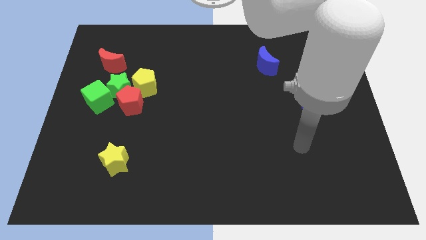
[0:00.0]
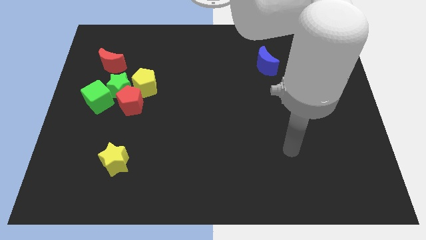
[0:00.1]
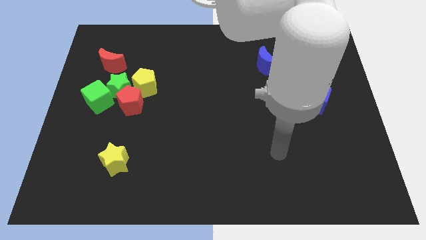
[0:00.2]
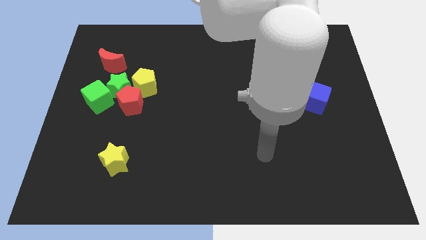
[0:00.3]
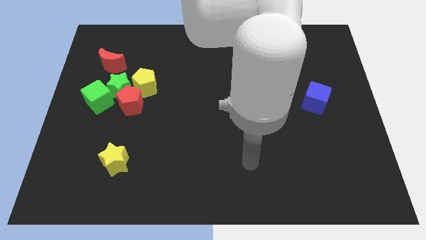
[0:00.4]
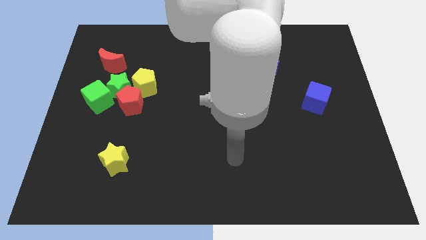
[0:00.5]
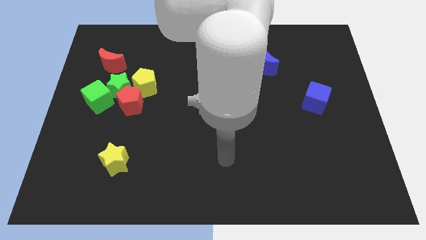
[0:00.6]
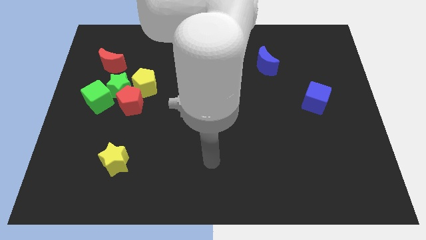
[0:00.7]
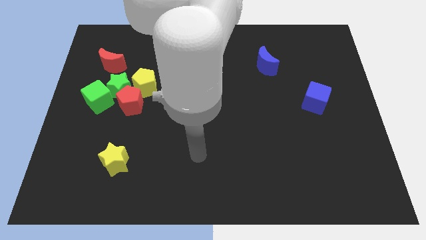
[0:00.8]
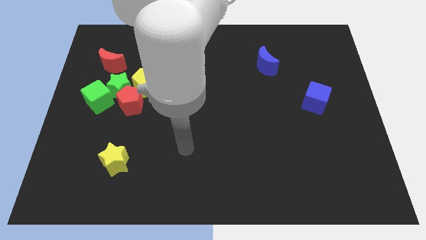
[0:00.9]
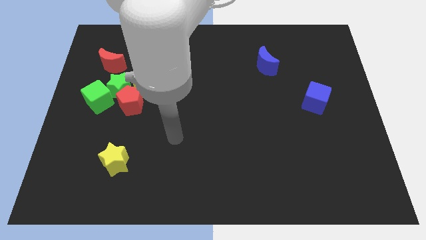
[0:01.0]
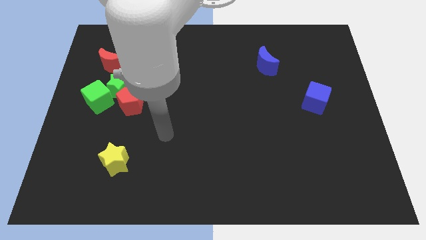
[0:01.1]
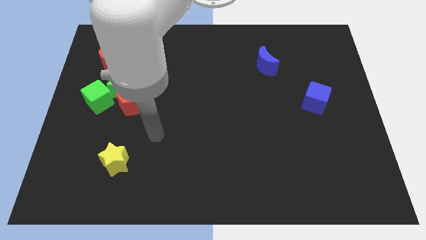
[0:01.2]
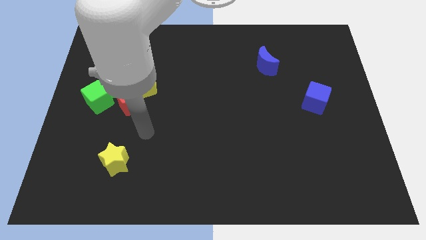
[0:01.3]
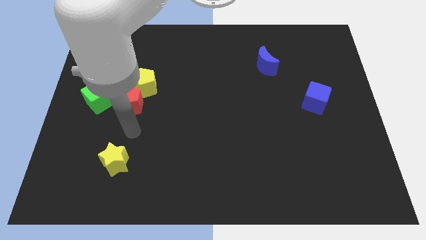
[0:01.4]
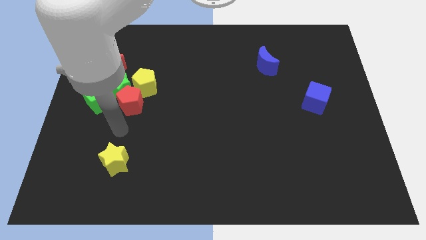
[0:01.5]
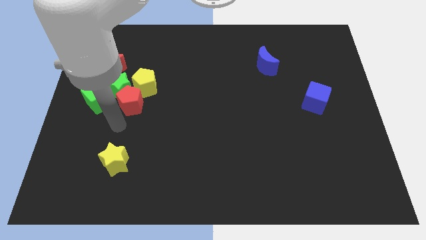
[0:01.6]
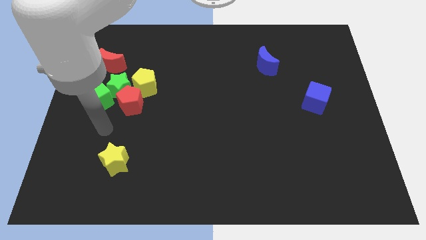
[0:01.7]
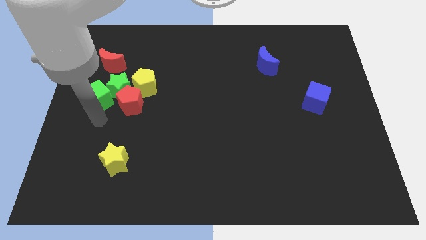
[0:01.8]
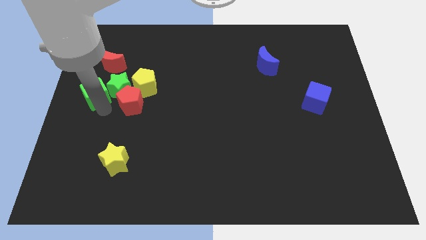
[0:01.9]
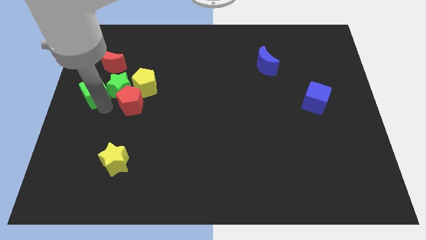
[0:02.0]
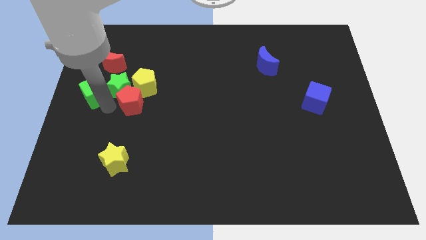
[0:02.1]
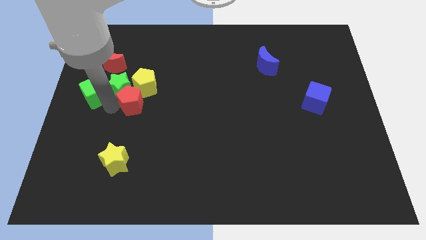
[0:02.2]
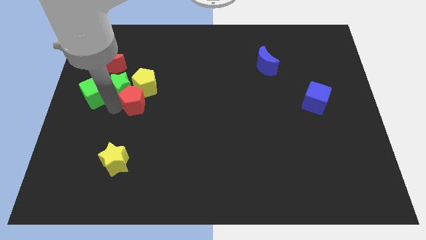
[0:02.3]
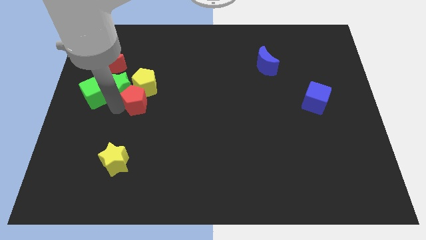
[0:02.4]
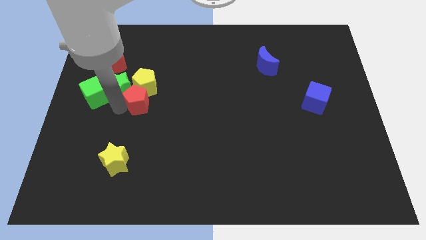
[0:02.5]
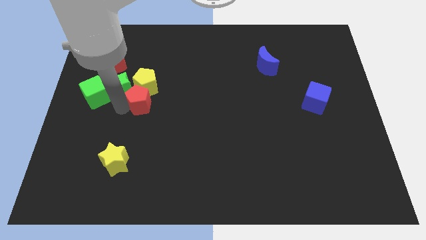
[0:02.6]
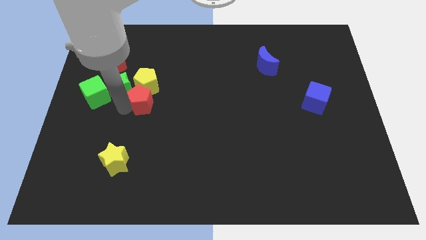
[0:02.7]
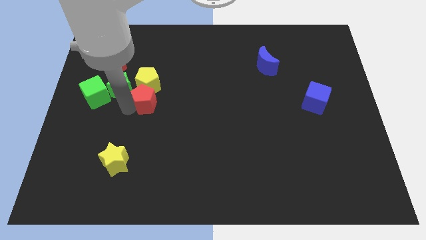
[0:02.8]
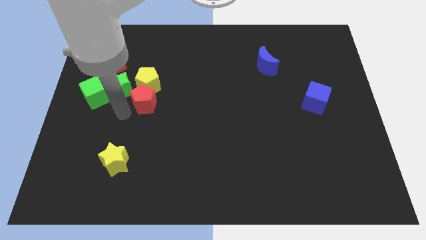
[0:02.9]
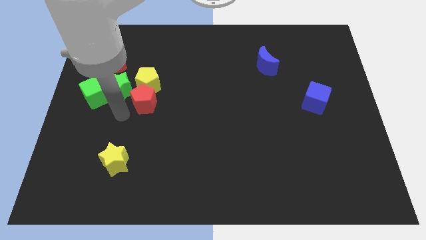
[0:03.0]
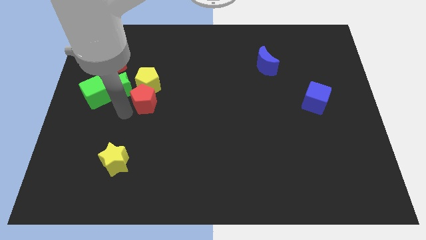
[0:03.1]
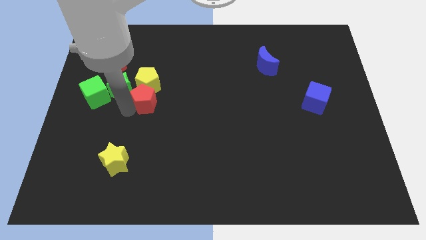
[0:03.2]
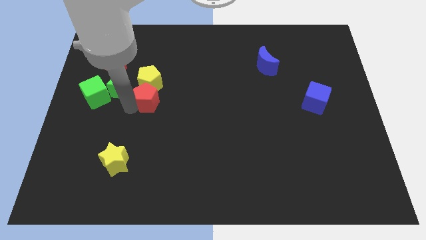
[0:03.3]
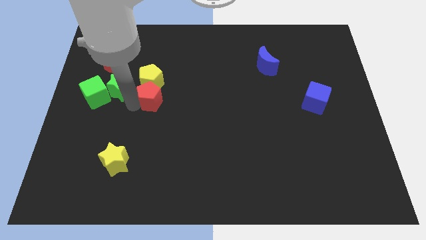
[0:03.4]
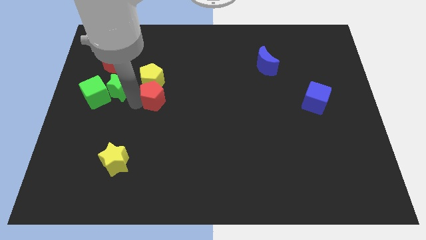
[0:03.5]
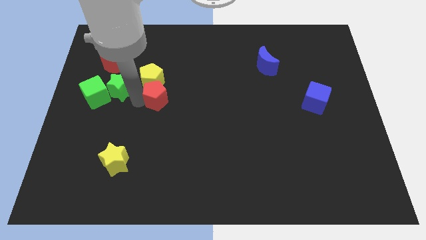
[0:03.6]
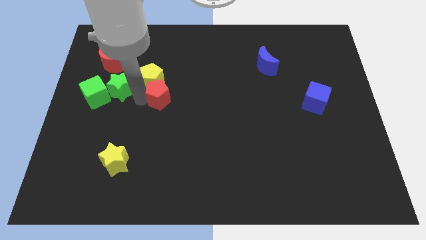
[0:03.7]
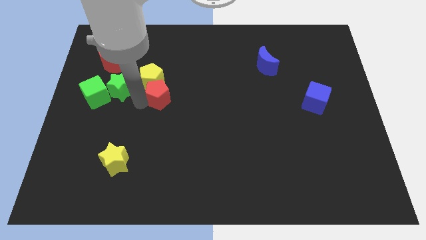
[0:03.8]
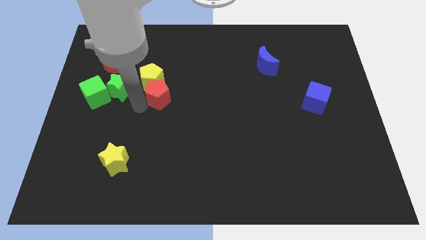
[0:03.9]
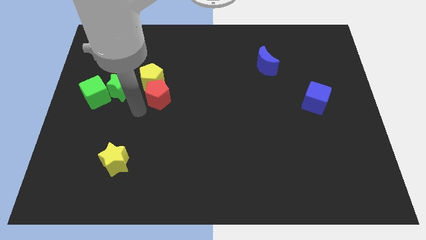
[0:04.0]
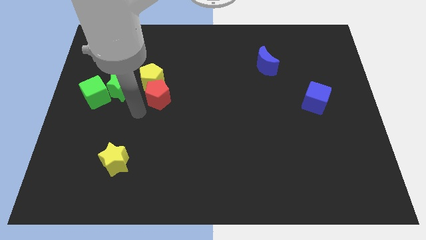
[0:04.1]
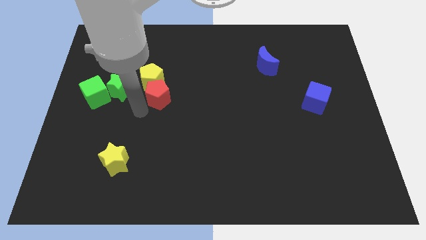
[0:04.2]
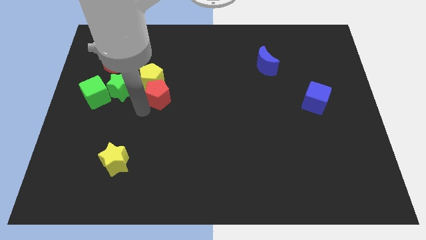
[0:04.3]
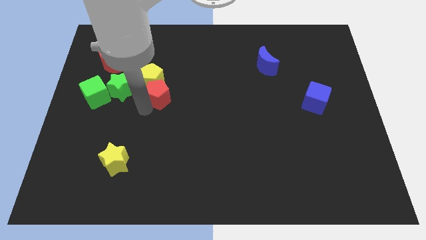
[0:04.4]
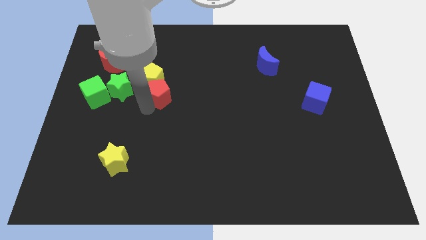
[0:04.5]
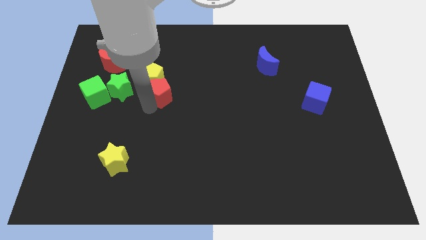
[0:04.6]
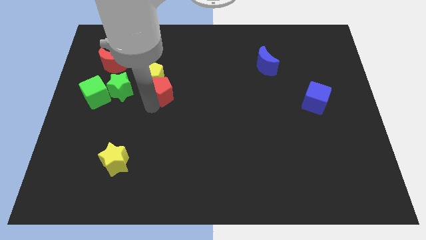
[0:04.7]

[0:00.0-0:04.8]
slightly push the red pentagon upwards and right

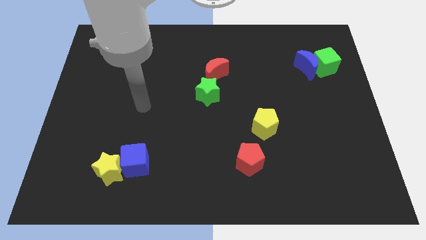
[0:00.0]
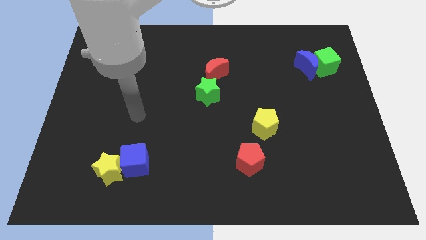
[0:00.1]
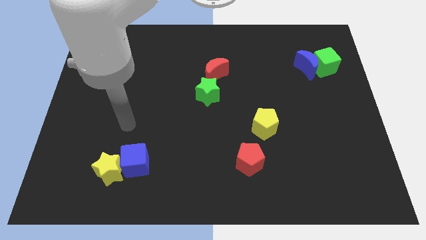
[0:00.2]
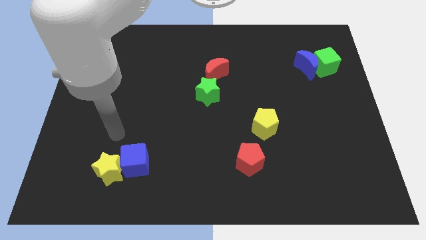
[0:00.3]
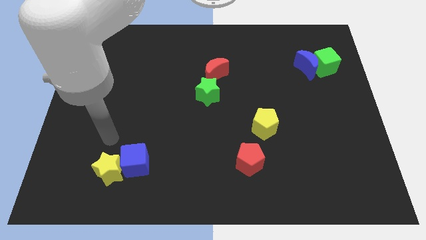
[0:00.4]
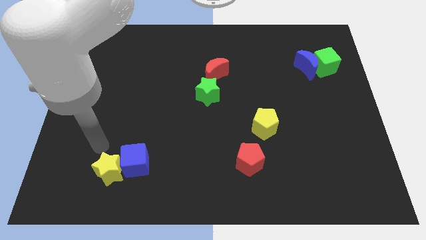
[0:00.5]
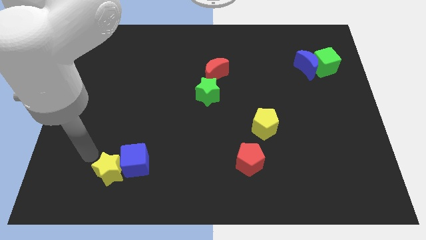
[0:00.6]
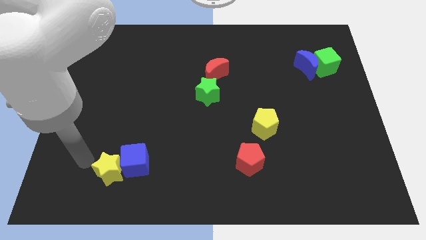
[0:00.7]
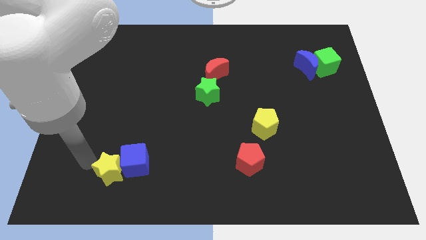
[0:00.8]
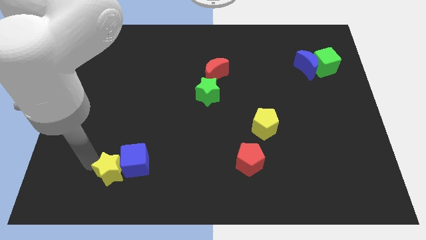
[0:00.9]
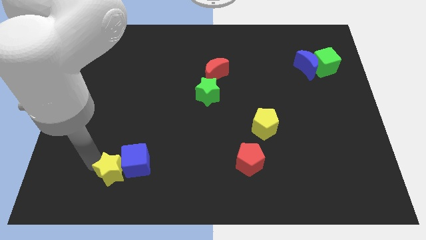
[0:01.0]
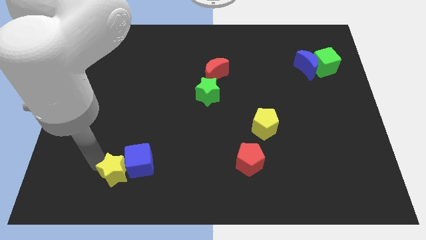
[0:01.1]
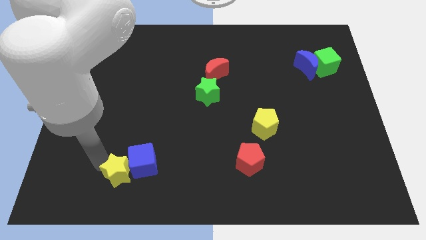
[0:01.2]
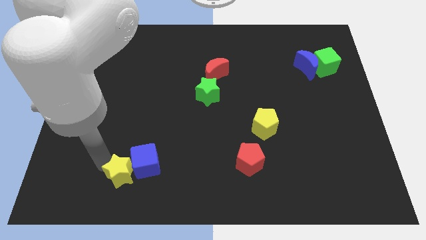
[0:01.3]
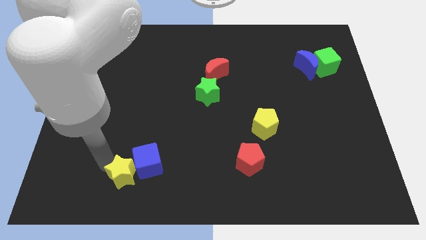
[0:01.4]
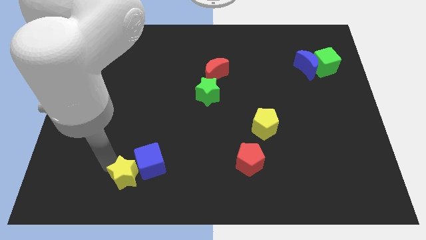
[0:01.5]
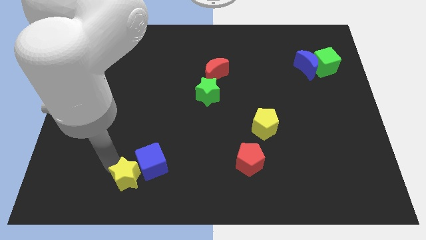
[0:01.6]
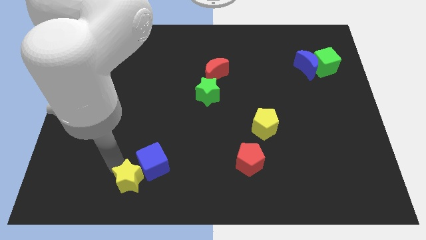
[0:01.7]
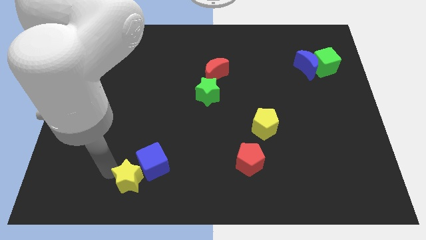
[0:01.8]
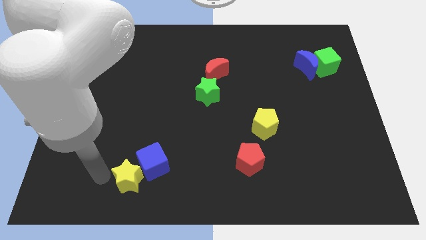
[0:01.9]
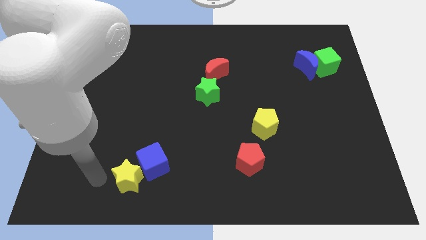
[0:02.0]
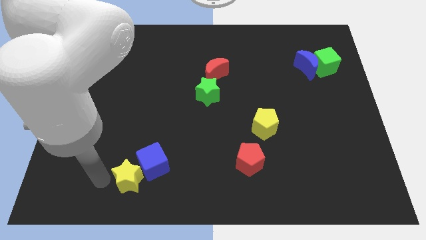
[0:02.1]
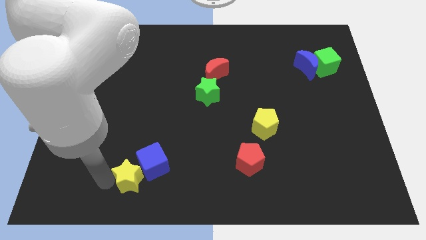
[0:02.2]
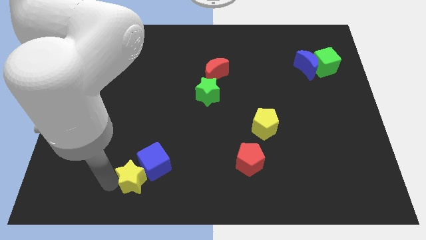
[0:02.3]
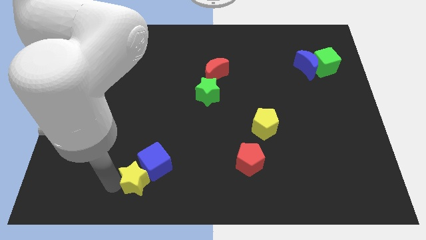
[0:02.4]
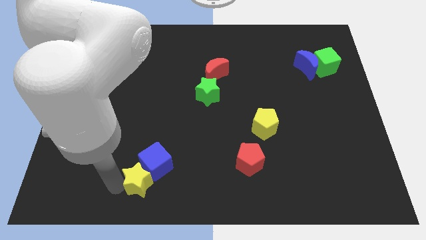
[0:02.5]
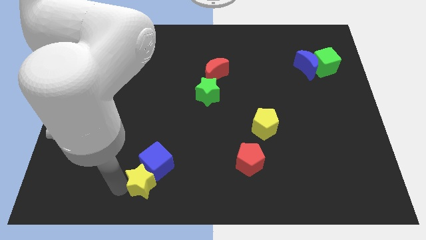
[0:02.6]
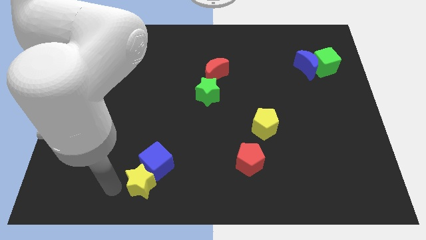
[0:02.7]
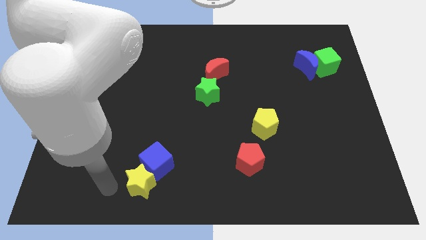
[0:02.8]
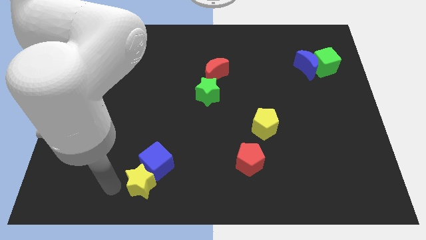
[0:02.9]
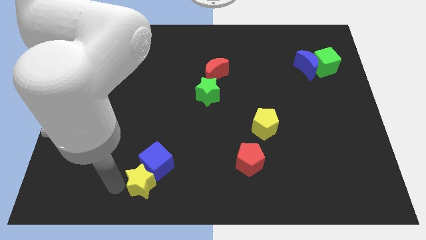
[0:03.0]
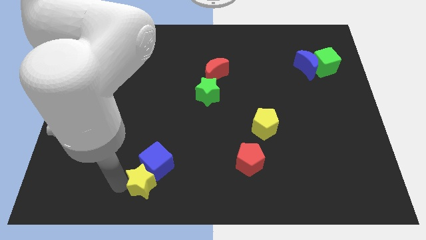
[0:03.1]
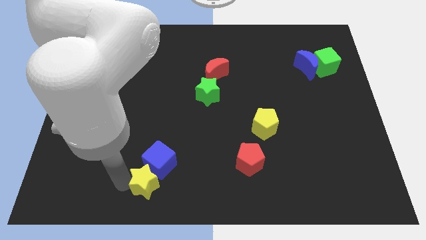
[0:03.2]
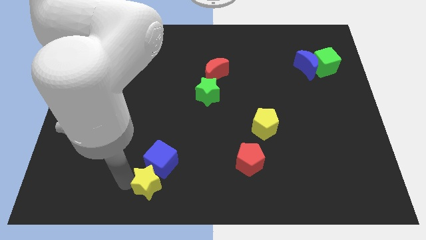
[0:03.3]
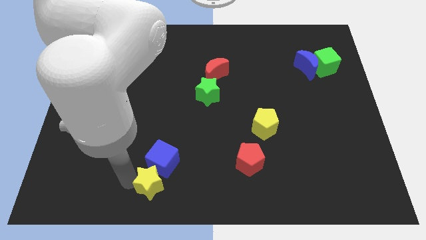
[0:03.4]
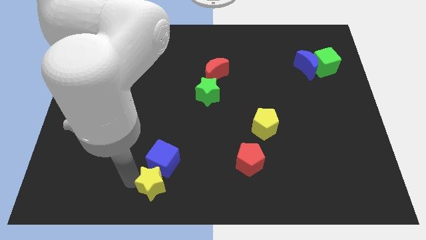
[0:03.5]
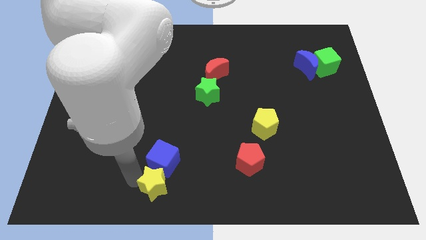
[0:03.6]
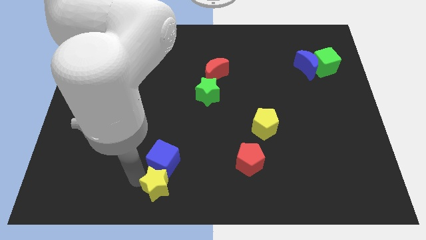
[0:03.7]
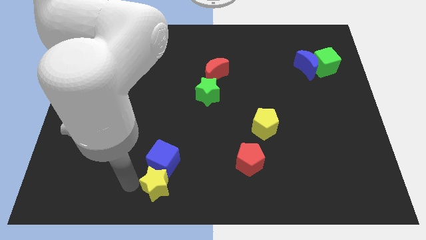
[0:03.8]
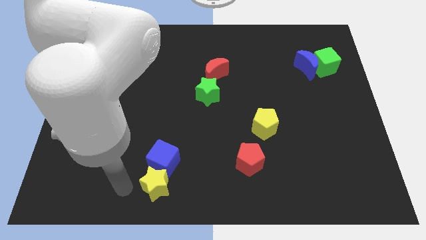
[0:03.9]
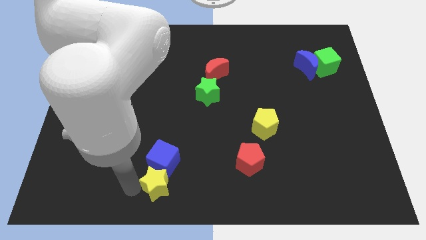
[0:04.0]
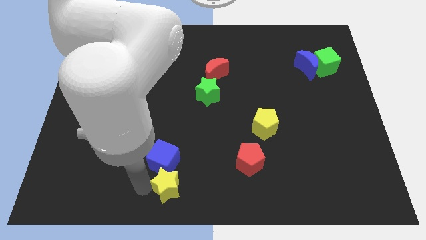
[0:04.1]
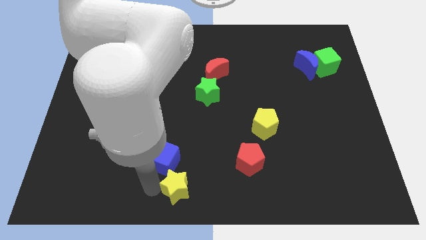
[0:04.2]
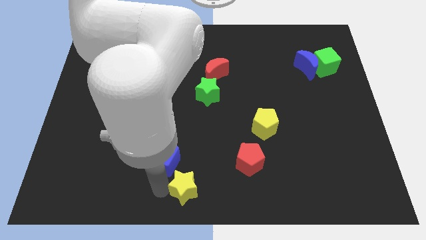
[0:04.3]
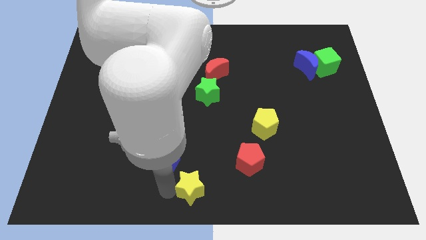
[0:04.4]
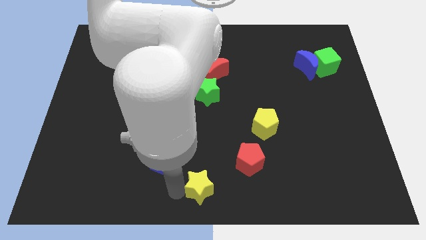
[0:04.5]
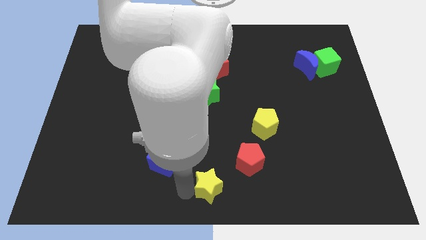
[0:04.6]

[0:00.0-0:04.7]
move the yellow star right
